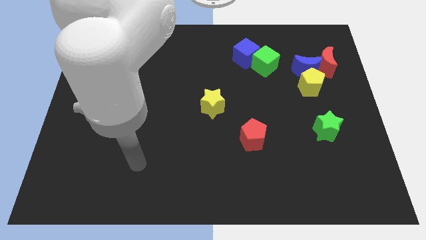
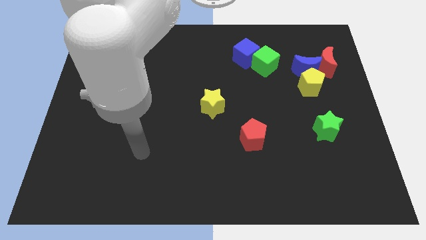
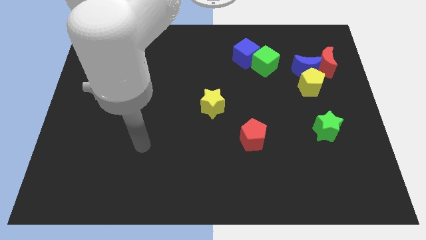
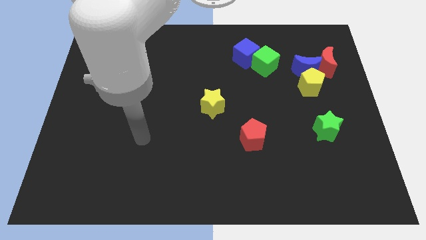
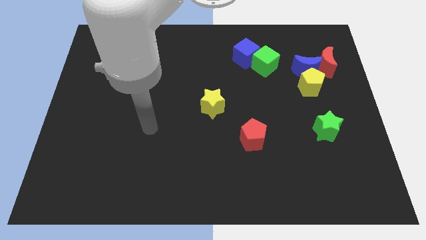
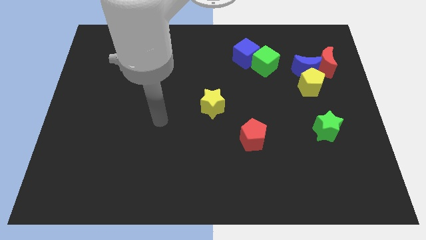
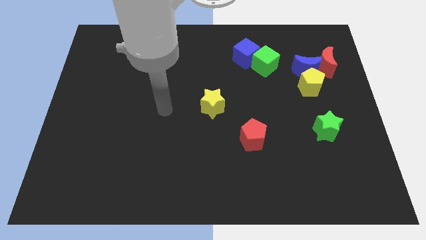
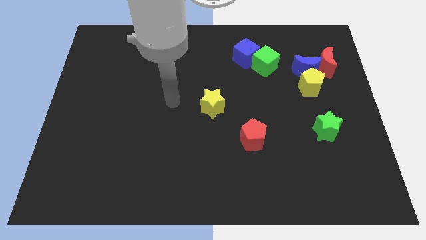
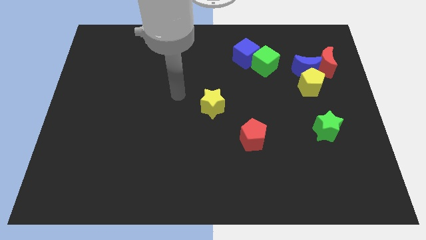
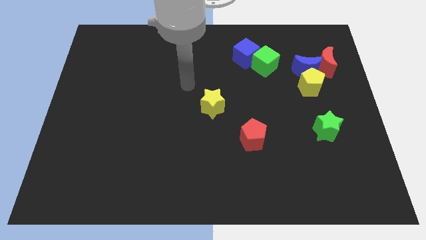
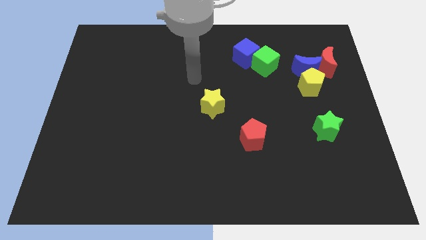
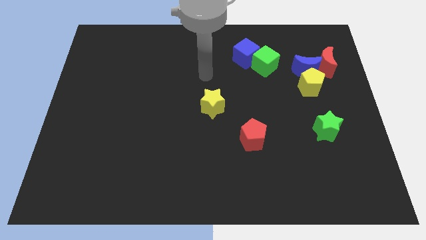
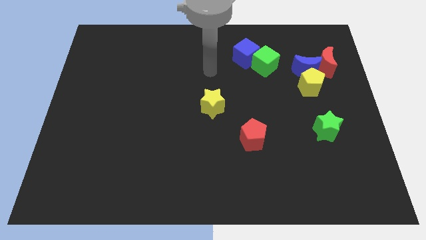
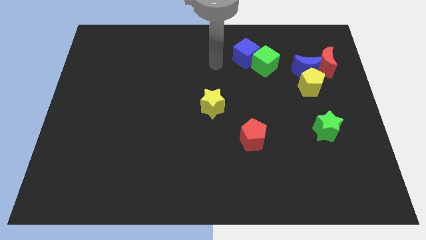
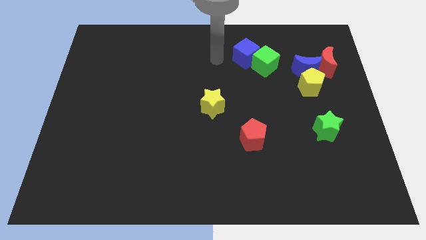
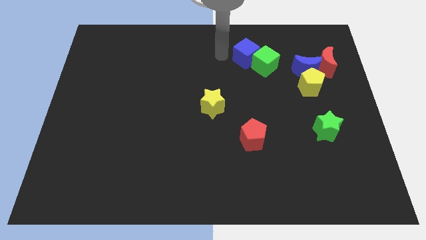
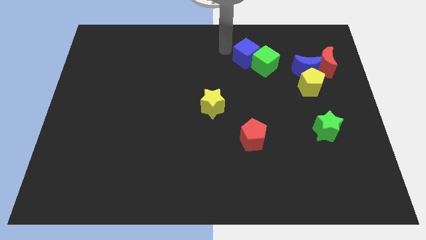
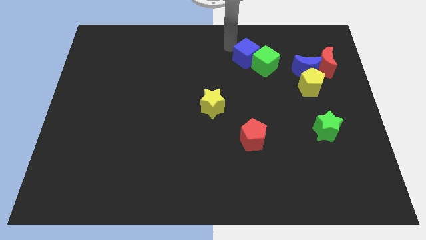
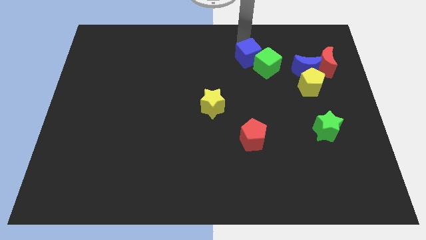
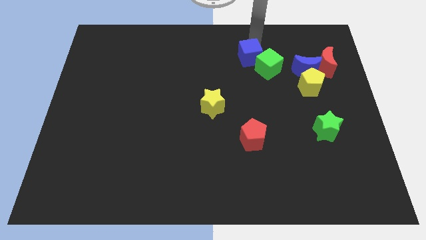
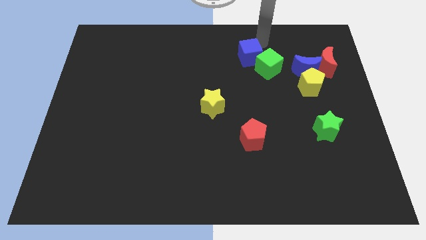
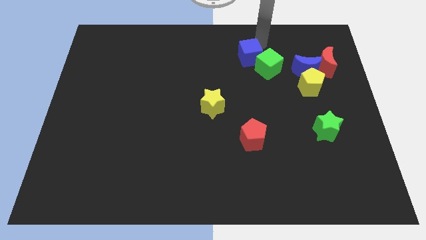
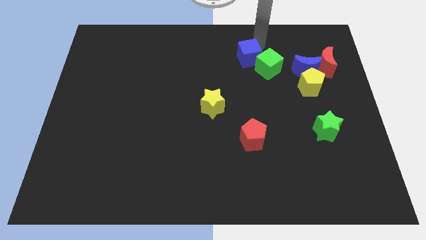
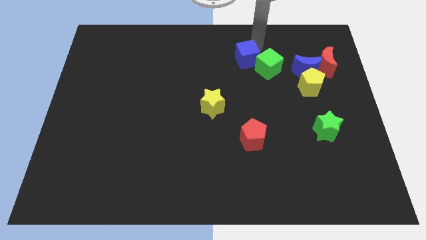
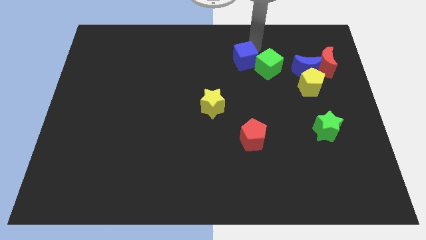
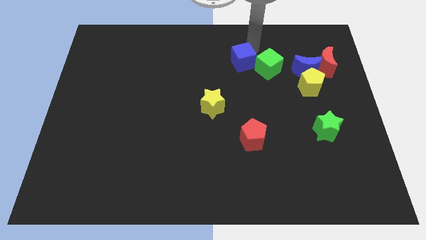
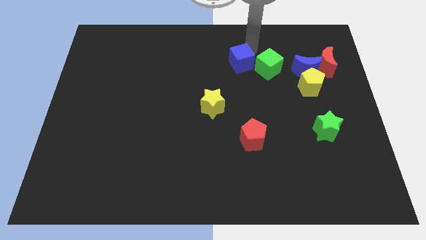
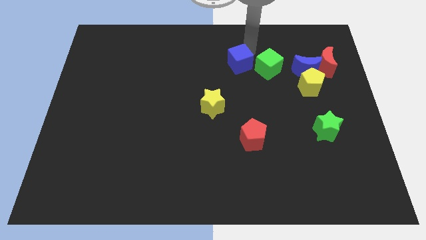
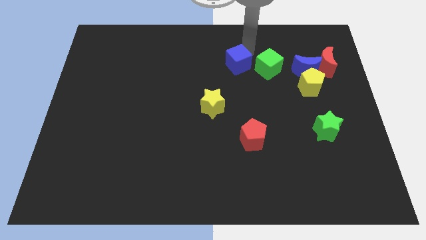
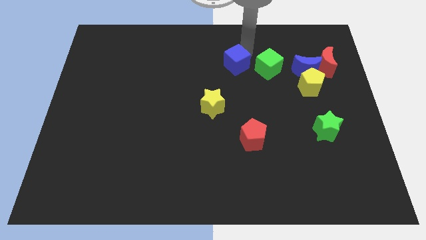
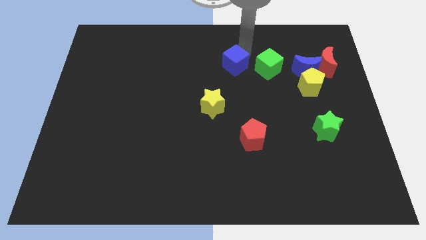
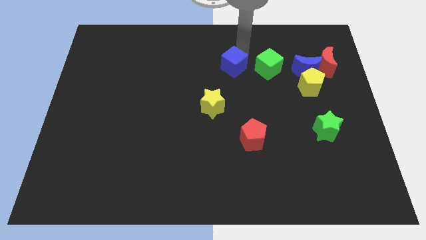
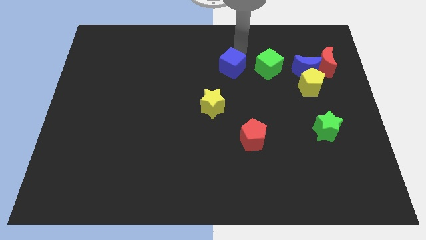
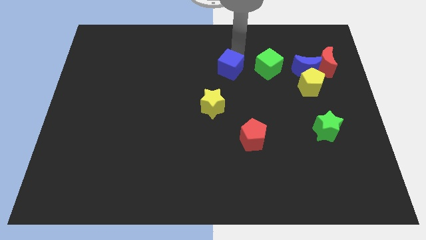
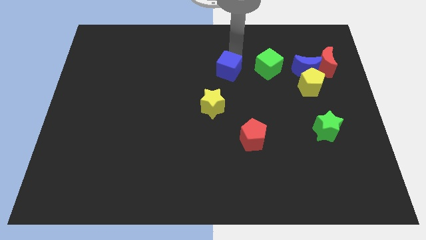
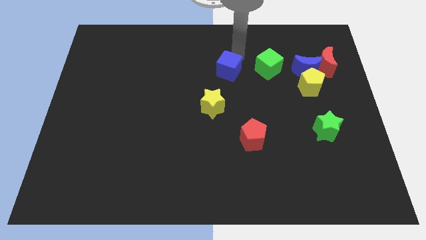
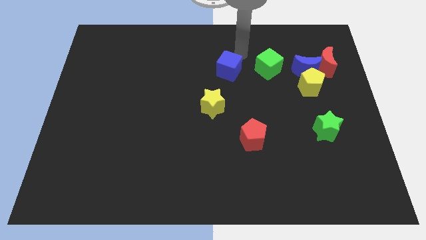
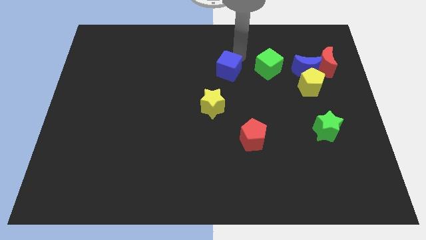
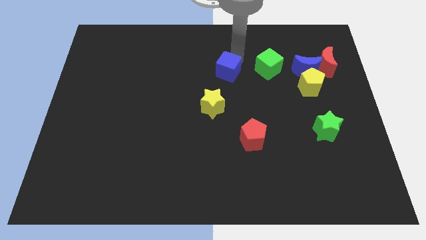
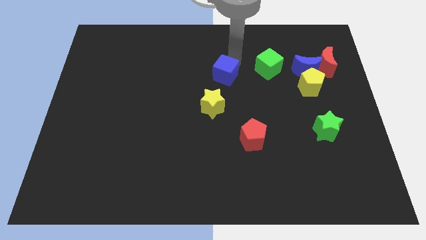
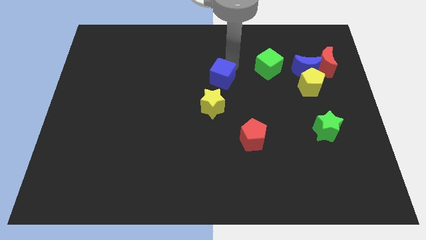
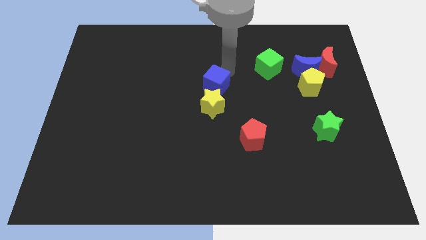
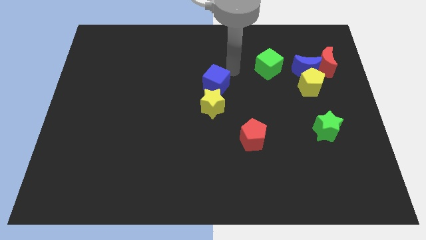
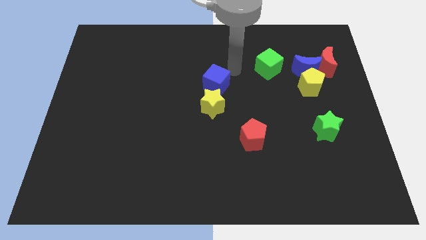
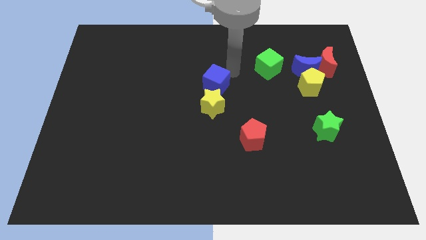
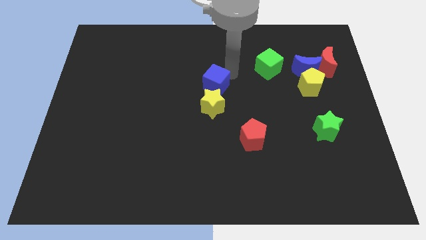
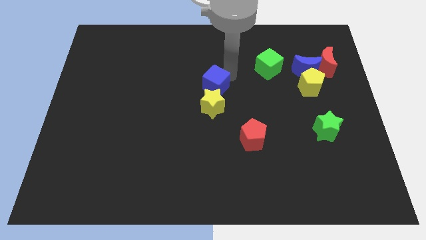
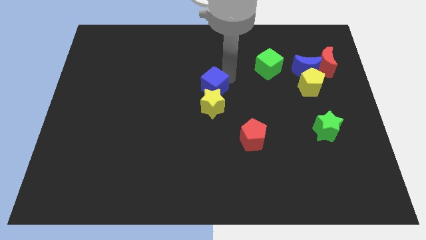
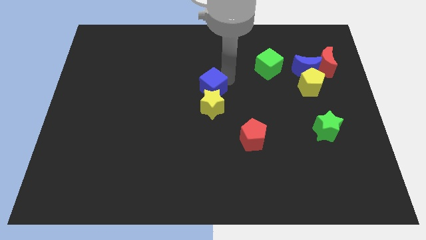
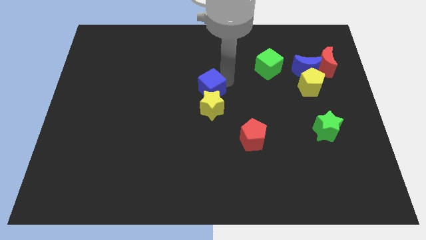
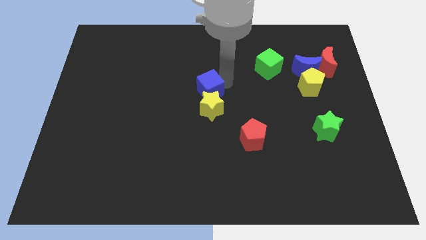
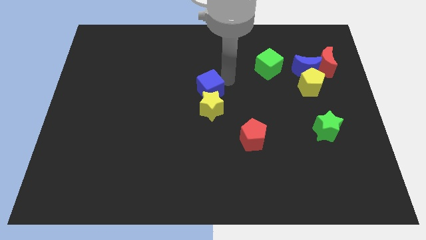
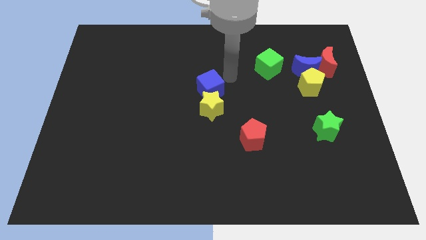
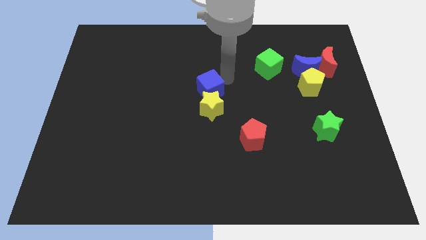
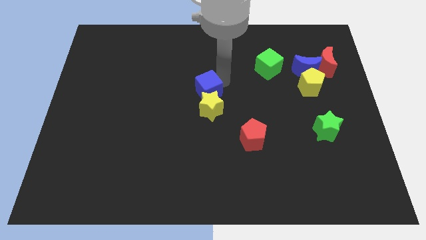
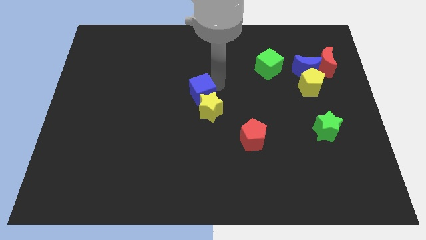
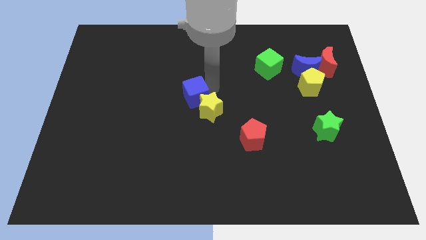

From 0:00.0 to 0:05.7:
slide the blue cube just left of the yellow star

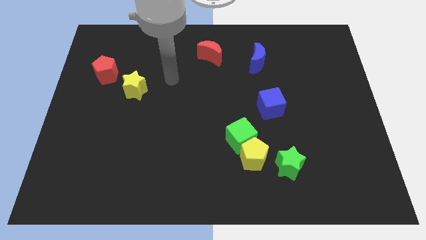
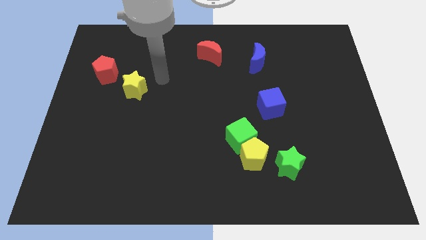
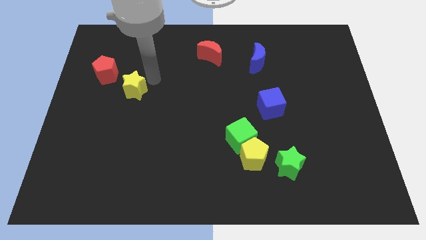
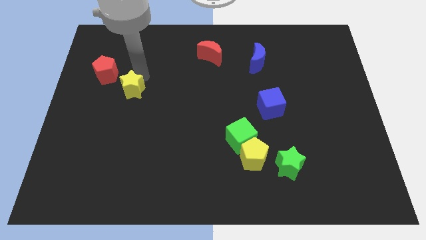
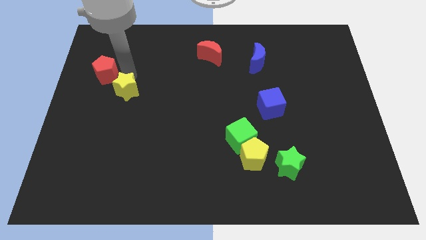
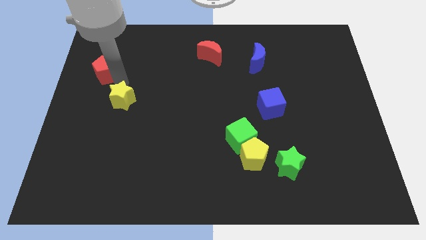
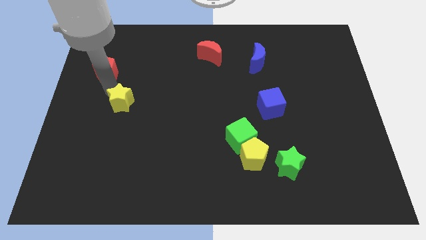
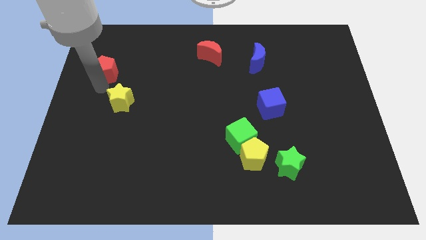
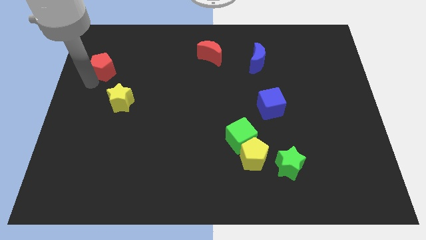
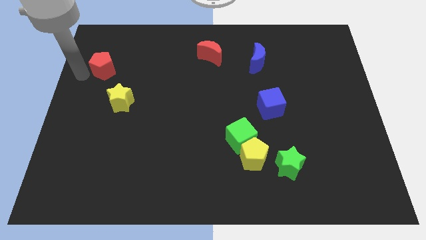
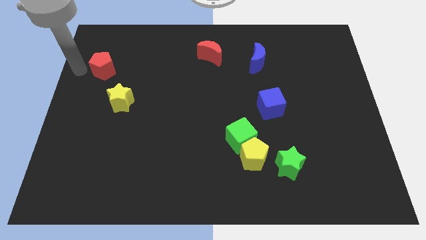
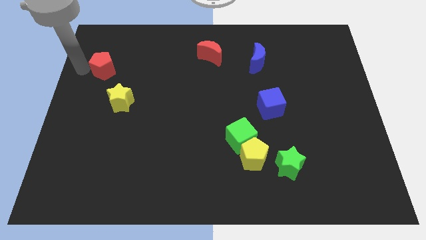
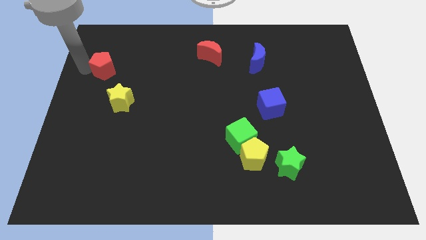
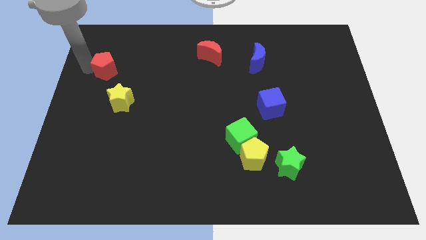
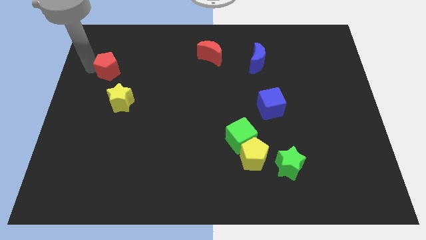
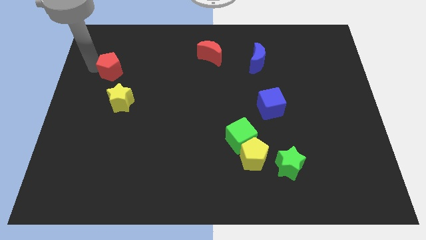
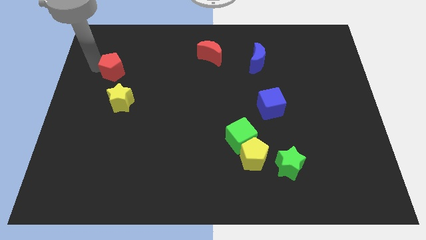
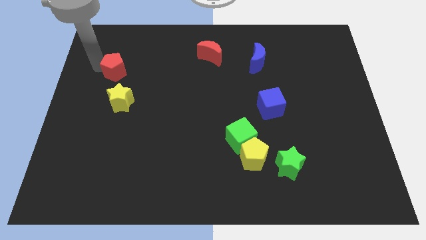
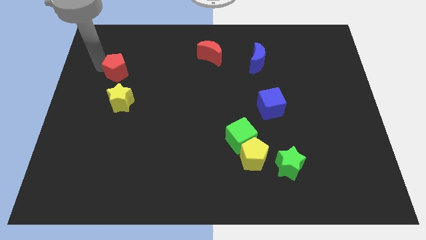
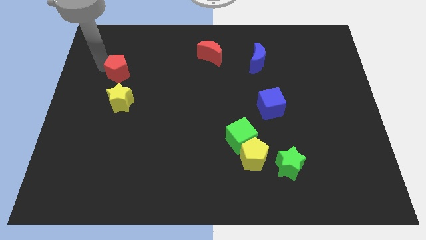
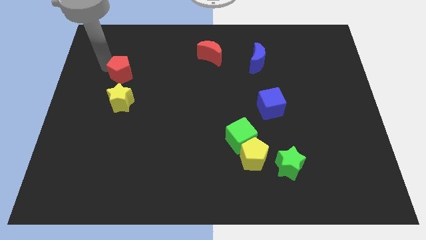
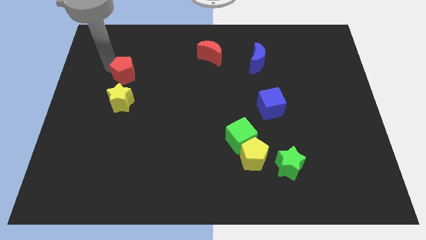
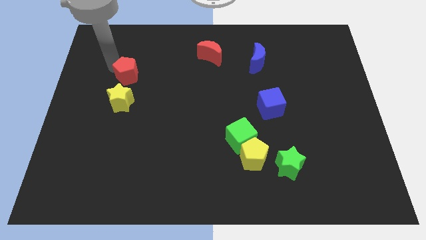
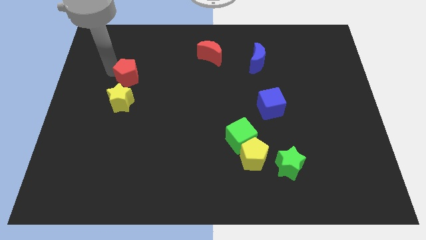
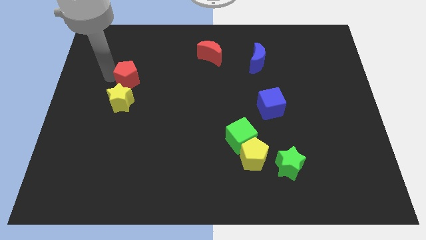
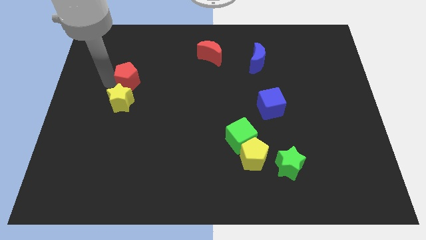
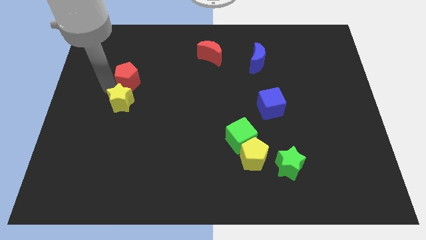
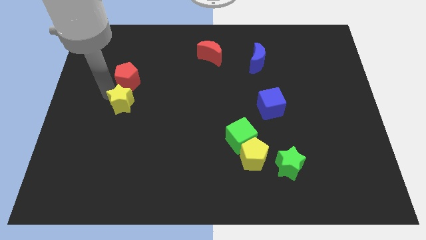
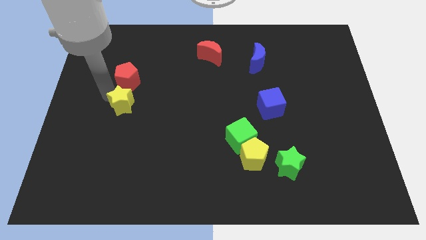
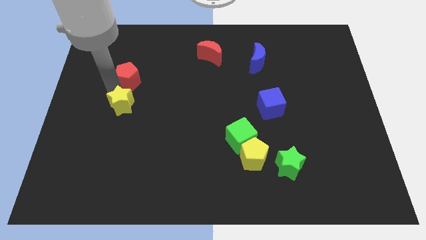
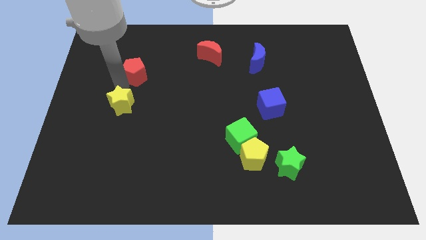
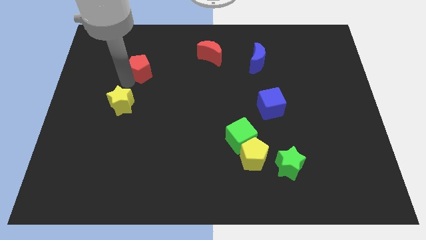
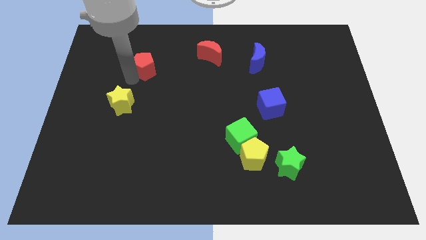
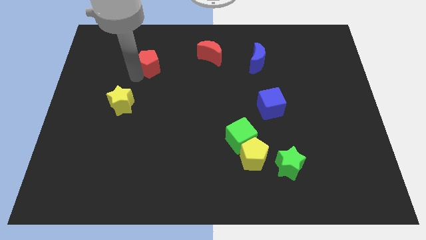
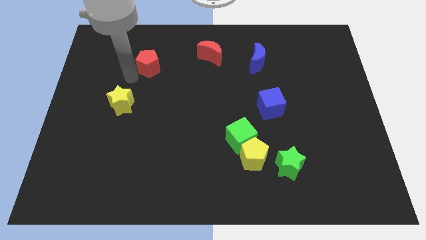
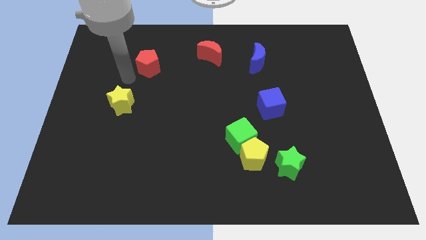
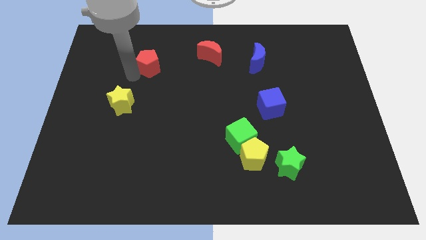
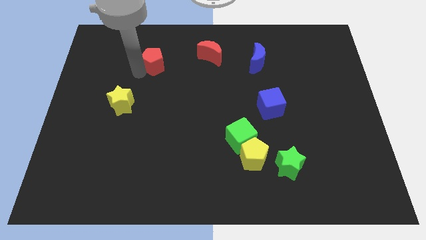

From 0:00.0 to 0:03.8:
push the red pentagon to the left side of the red moon
